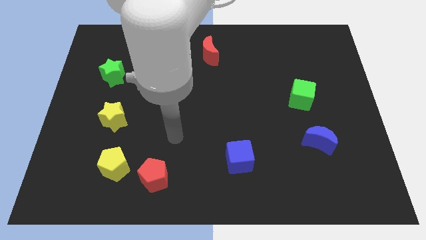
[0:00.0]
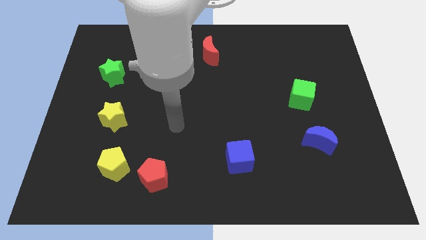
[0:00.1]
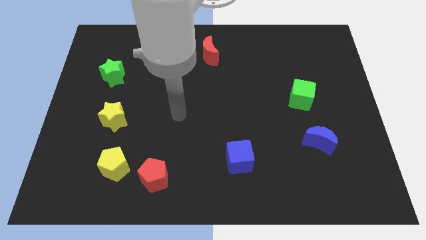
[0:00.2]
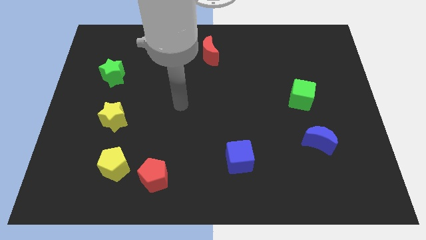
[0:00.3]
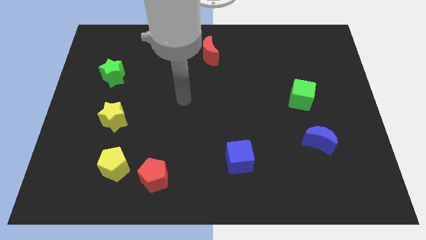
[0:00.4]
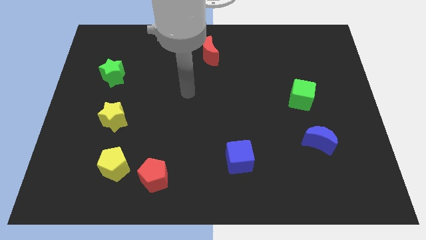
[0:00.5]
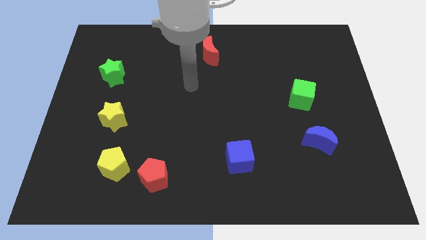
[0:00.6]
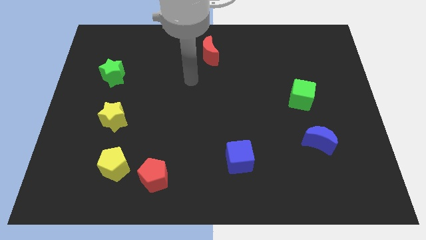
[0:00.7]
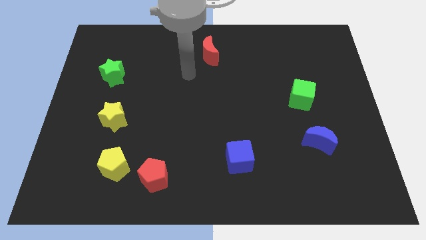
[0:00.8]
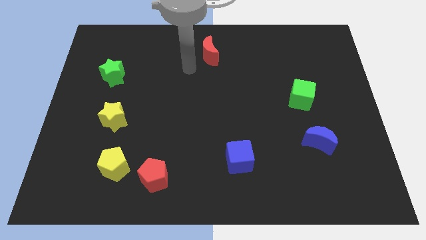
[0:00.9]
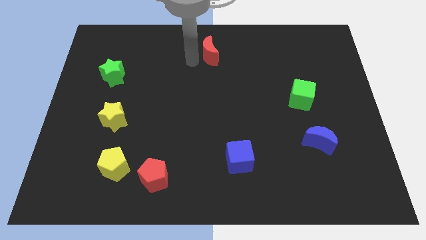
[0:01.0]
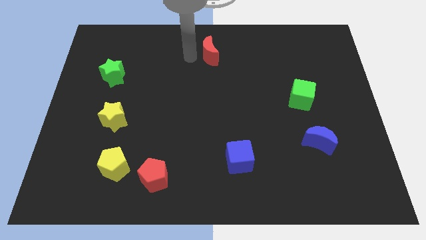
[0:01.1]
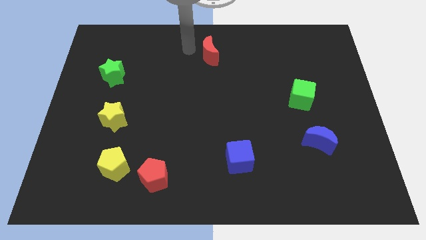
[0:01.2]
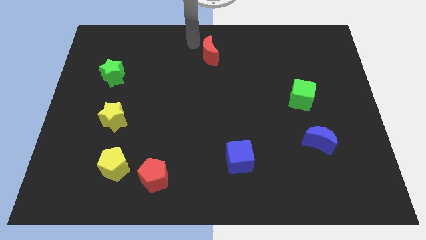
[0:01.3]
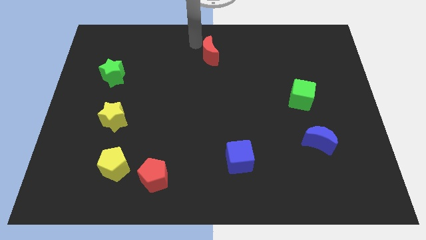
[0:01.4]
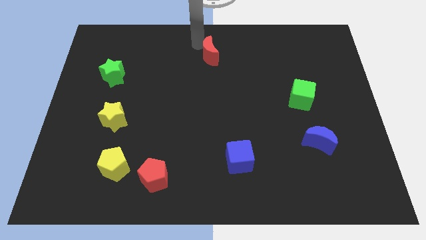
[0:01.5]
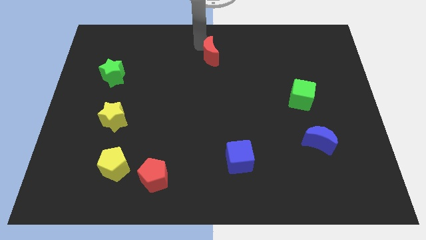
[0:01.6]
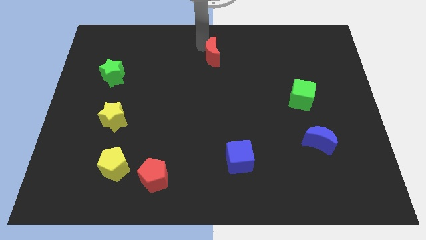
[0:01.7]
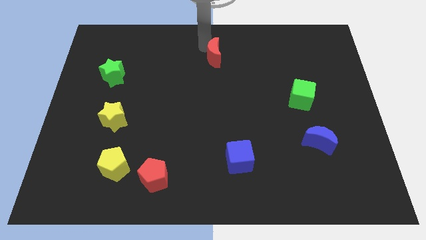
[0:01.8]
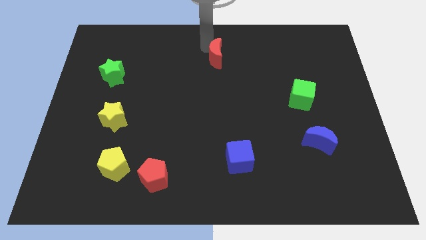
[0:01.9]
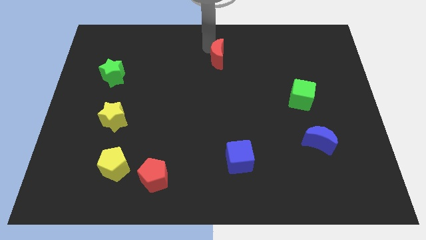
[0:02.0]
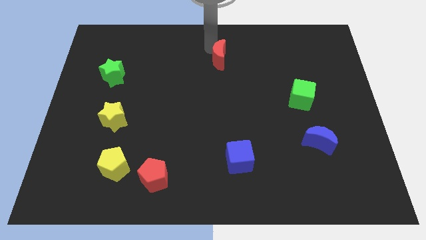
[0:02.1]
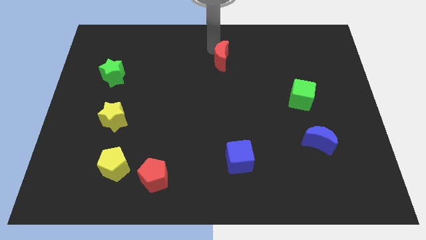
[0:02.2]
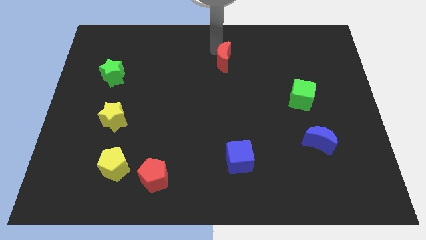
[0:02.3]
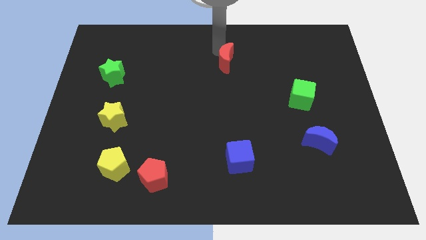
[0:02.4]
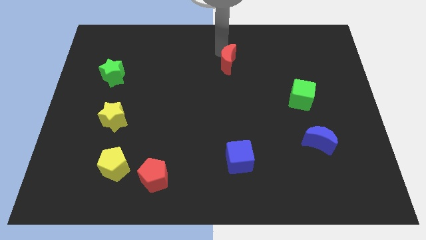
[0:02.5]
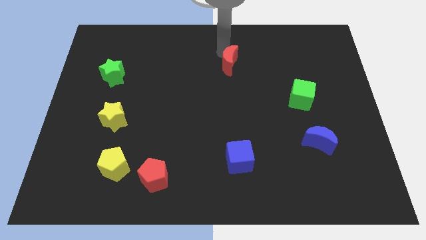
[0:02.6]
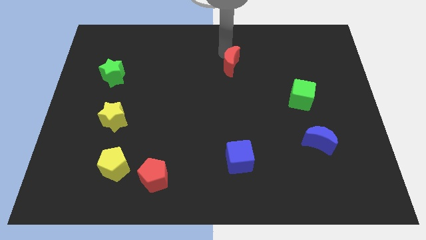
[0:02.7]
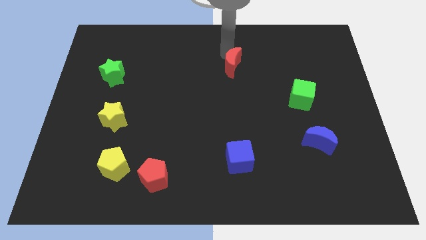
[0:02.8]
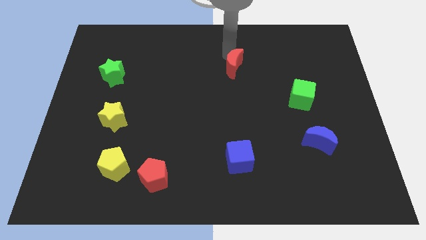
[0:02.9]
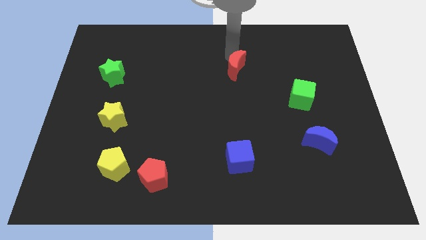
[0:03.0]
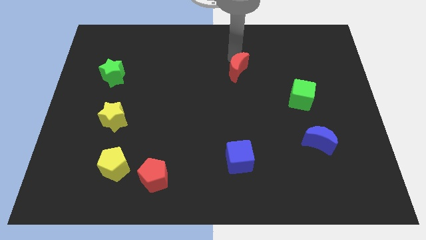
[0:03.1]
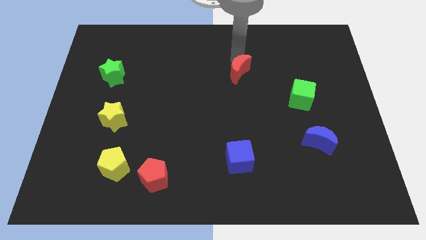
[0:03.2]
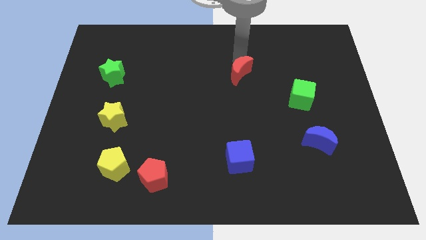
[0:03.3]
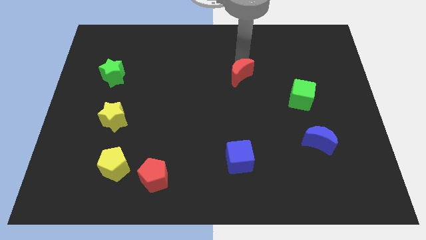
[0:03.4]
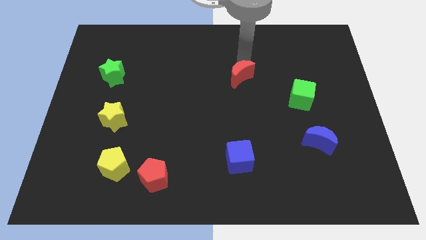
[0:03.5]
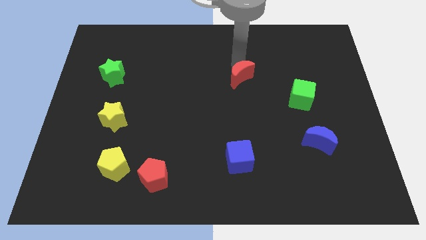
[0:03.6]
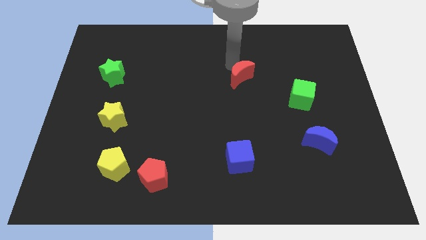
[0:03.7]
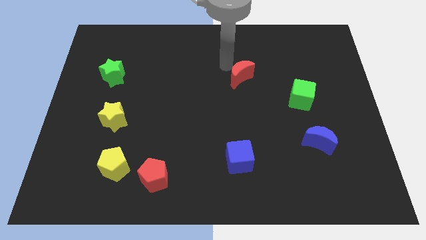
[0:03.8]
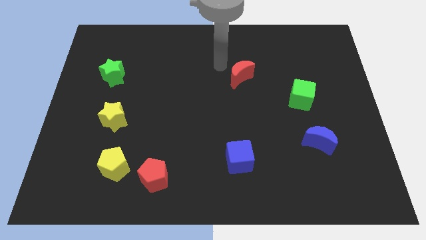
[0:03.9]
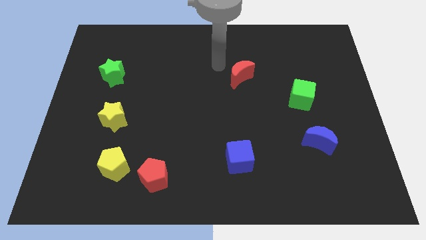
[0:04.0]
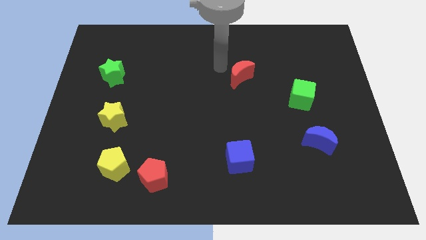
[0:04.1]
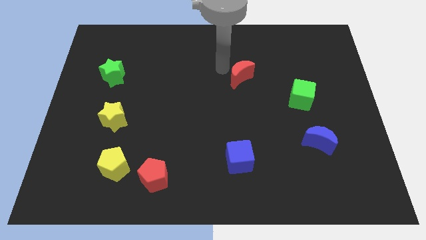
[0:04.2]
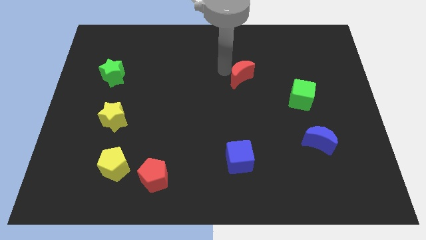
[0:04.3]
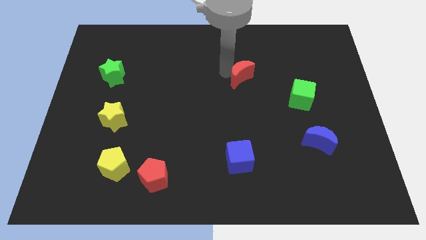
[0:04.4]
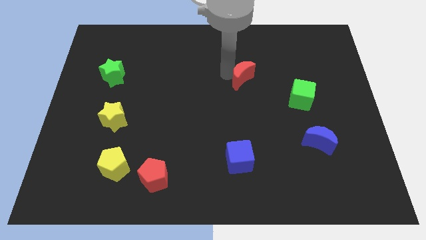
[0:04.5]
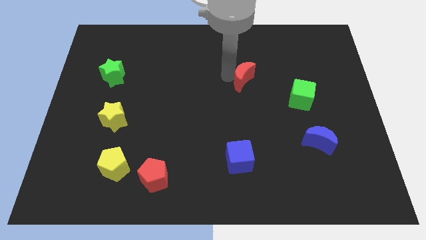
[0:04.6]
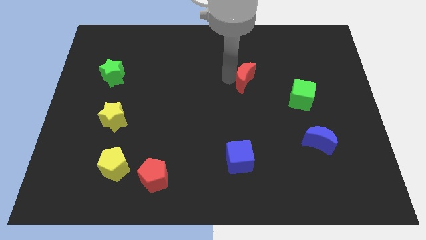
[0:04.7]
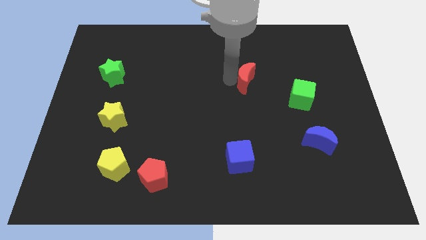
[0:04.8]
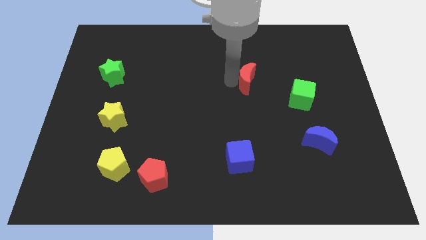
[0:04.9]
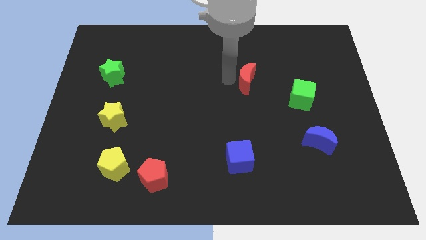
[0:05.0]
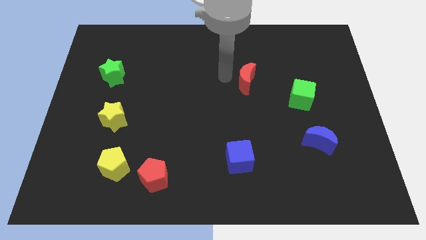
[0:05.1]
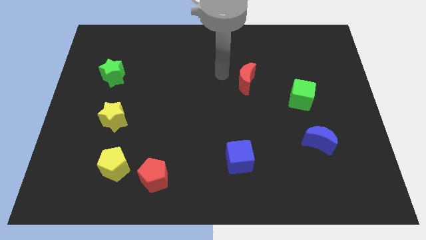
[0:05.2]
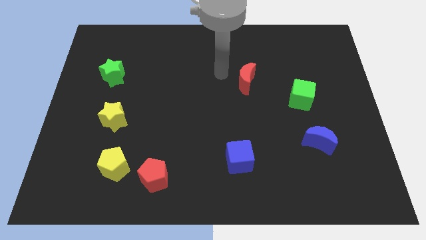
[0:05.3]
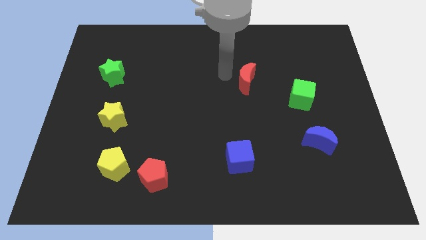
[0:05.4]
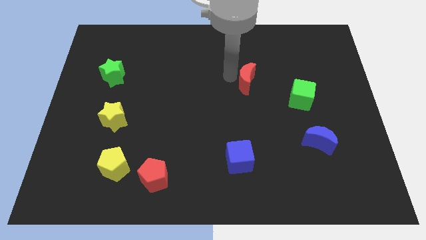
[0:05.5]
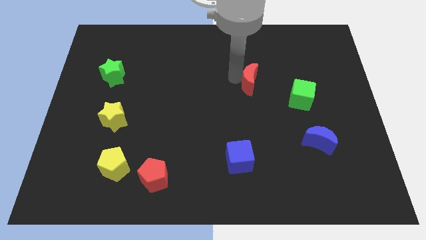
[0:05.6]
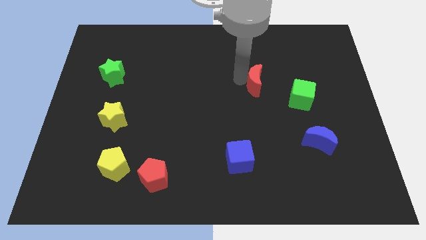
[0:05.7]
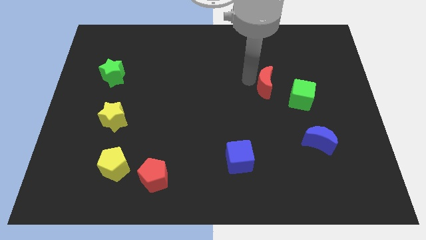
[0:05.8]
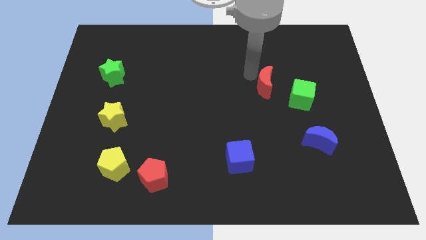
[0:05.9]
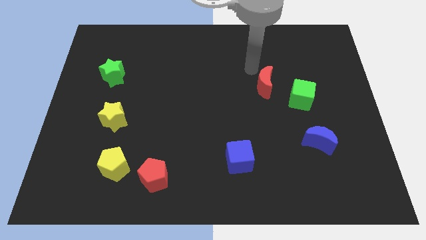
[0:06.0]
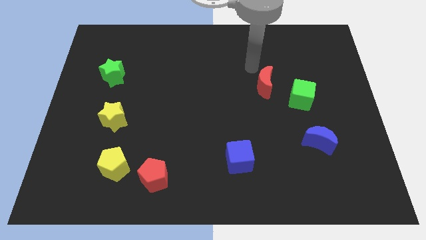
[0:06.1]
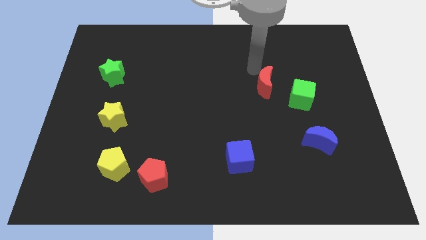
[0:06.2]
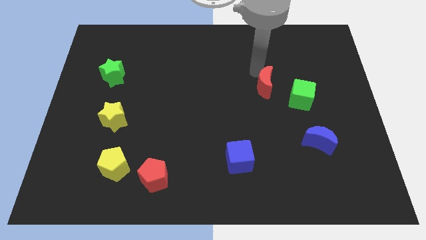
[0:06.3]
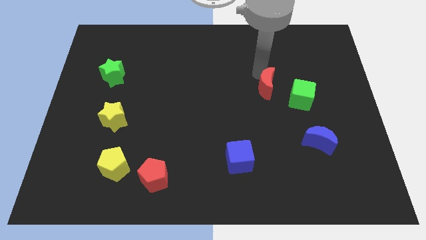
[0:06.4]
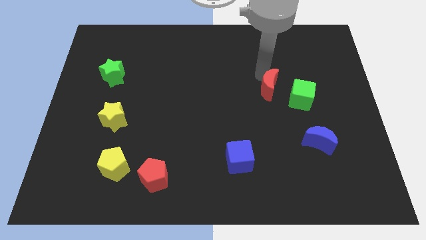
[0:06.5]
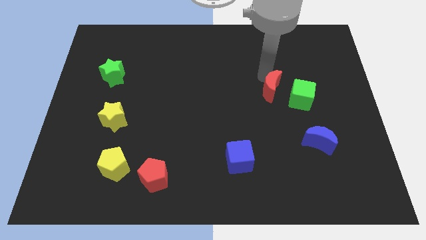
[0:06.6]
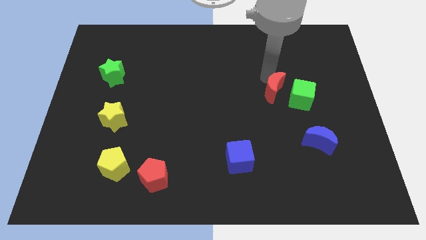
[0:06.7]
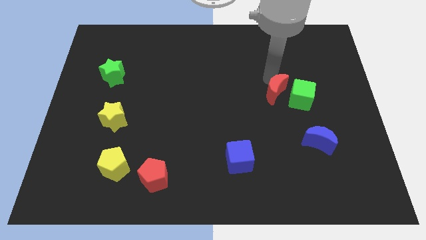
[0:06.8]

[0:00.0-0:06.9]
slide the red moon downwards and to the right

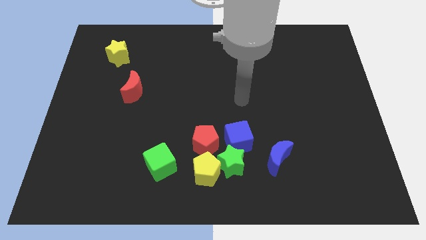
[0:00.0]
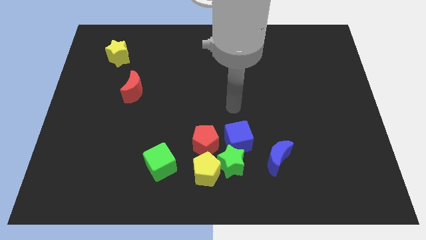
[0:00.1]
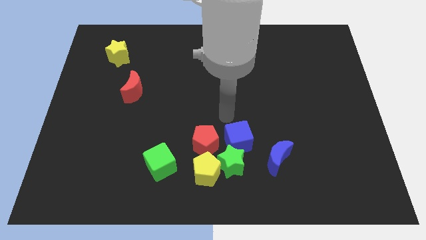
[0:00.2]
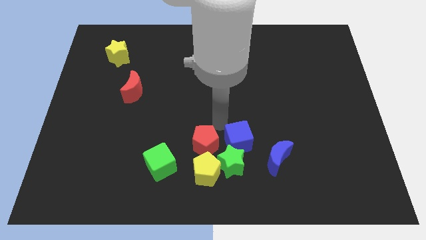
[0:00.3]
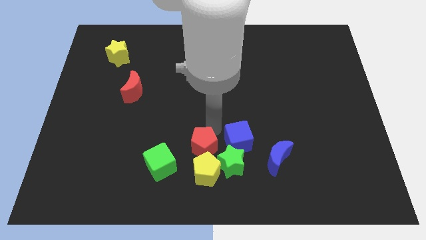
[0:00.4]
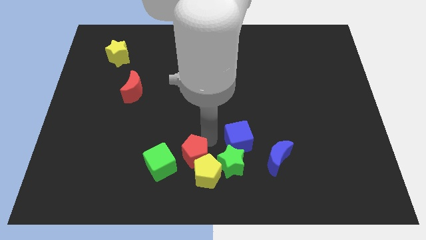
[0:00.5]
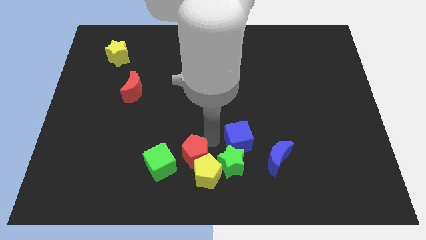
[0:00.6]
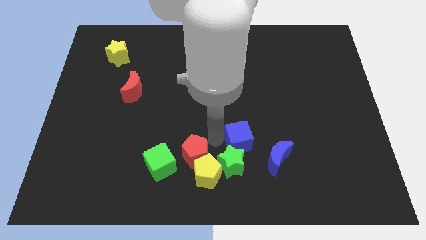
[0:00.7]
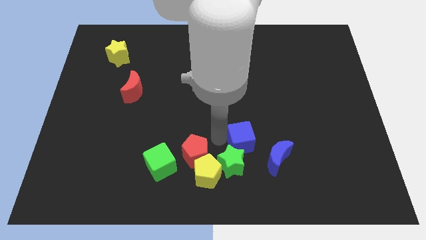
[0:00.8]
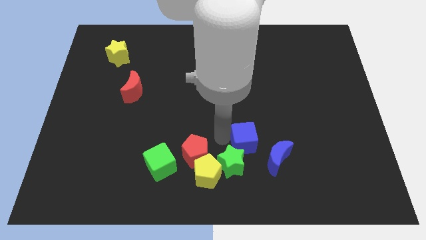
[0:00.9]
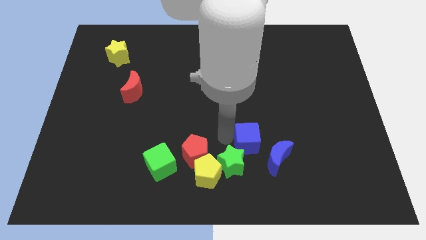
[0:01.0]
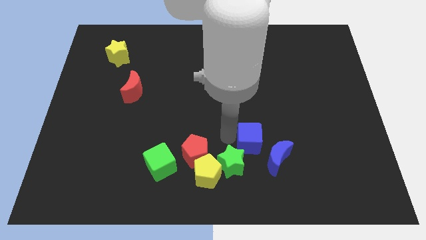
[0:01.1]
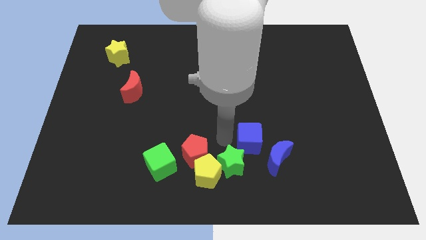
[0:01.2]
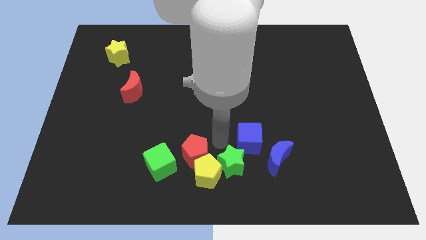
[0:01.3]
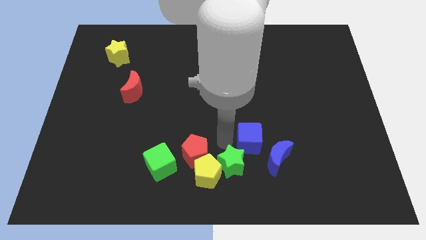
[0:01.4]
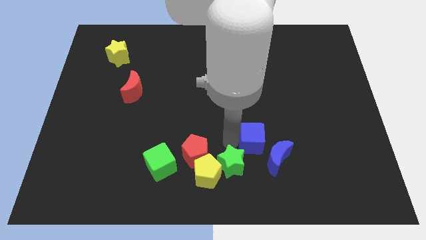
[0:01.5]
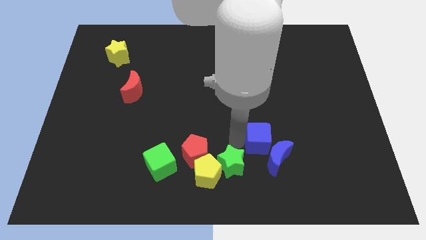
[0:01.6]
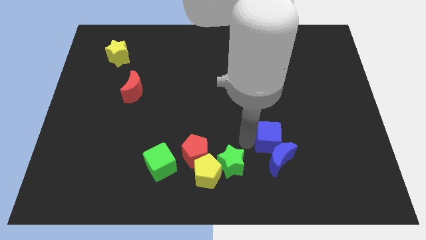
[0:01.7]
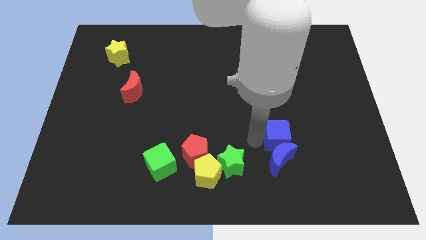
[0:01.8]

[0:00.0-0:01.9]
slide the blue cube a bit to the right
